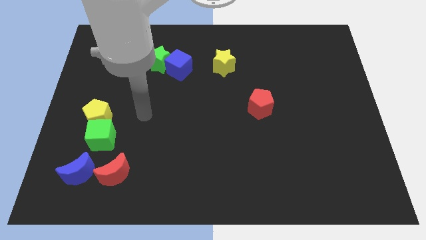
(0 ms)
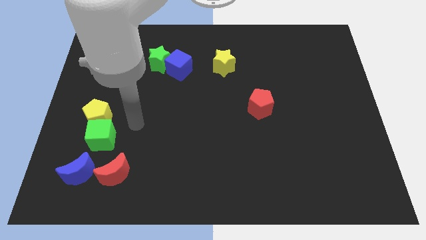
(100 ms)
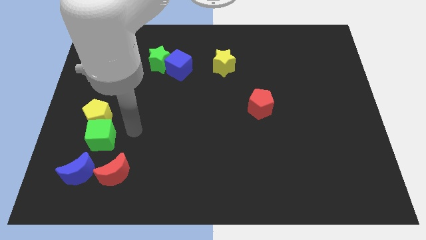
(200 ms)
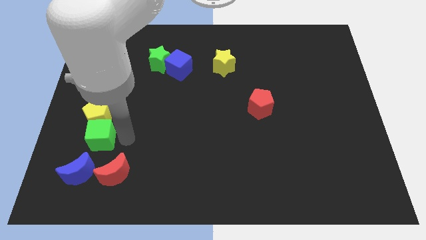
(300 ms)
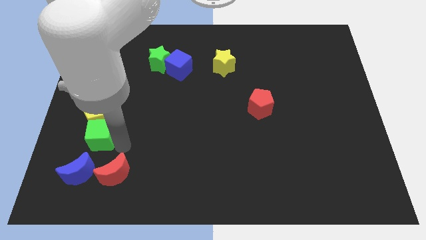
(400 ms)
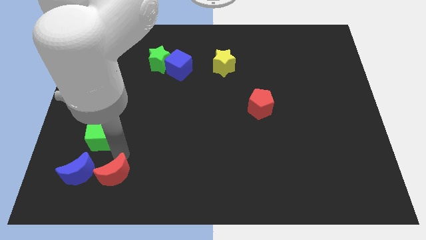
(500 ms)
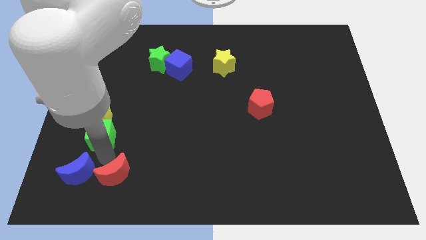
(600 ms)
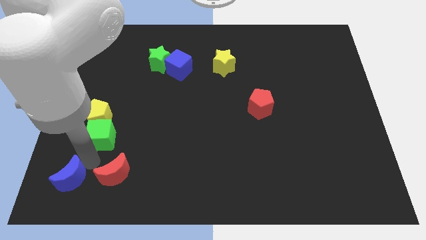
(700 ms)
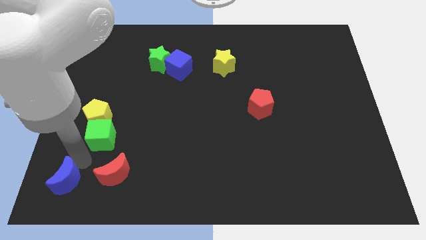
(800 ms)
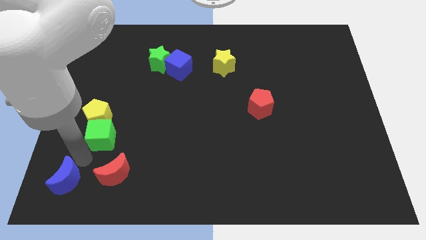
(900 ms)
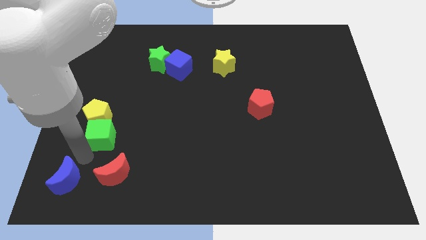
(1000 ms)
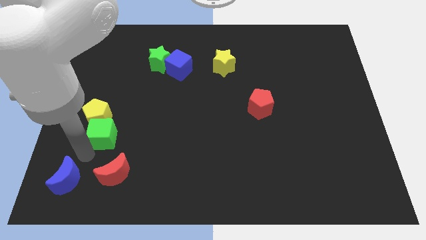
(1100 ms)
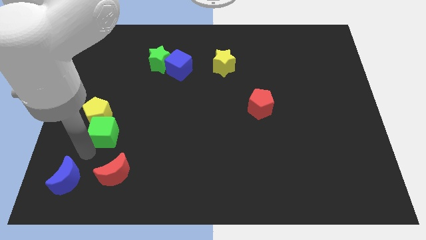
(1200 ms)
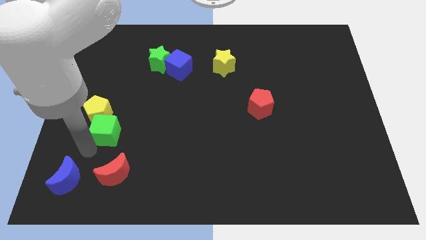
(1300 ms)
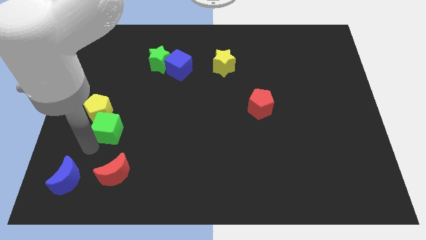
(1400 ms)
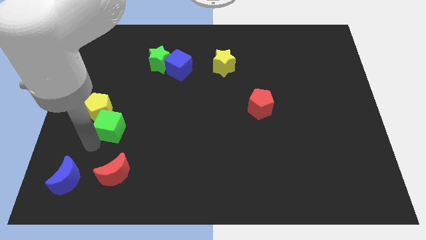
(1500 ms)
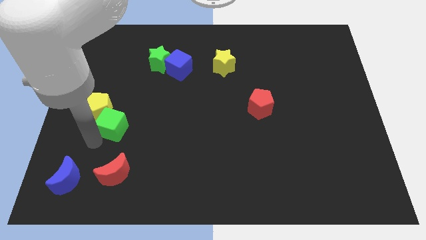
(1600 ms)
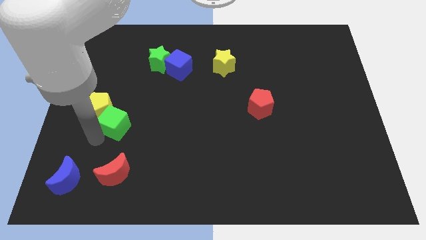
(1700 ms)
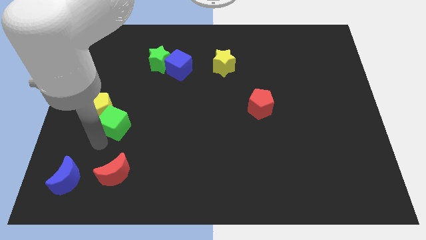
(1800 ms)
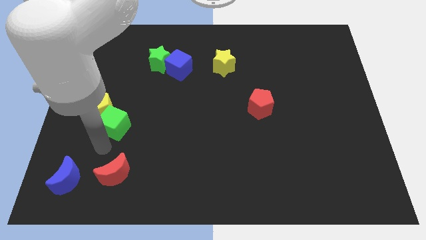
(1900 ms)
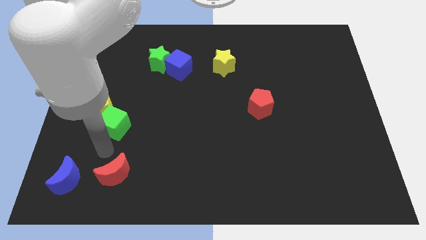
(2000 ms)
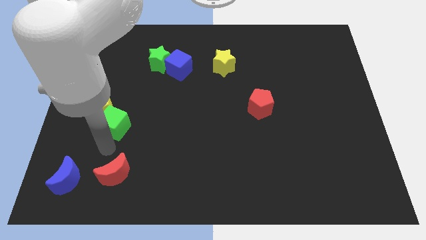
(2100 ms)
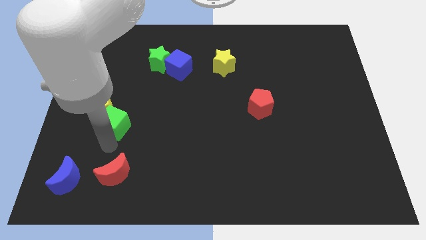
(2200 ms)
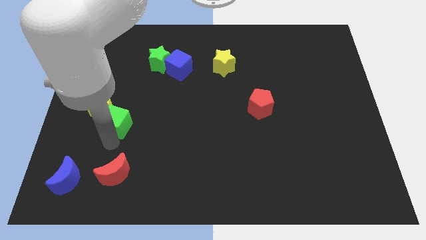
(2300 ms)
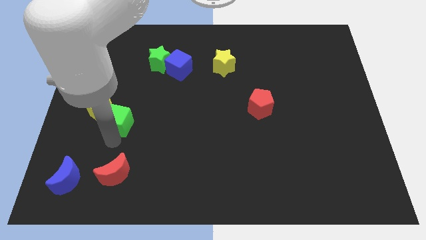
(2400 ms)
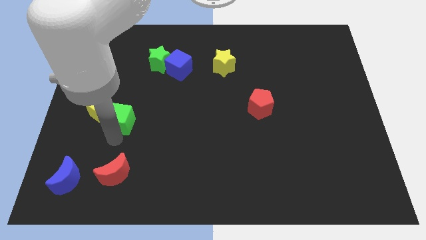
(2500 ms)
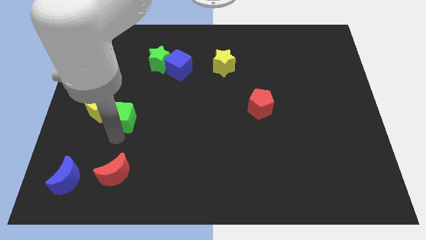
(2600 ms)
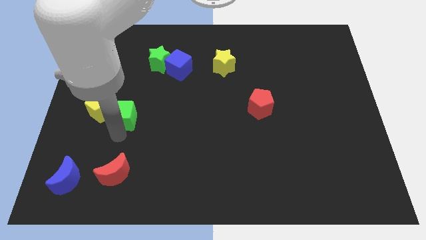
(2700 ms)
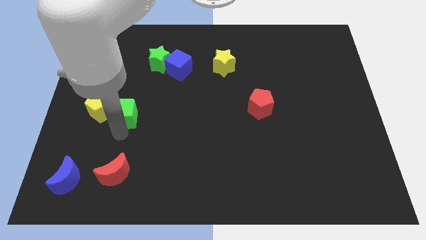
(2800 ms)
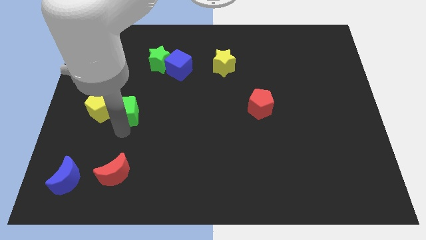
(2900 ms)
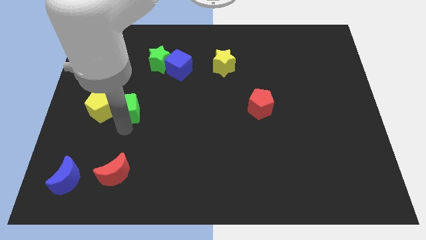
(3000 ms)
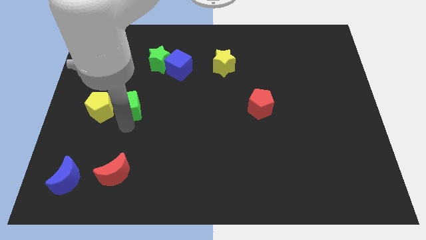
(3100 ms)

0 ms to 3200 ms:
push the green cube up a little

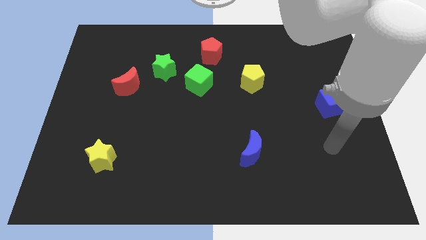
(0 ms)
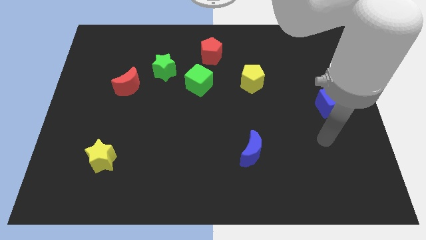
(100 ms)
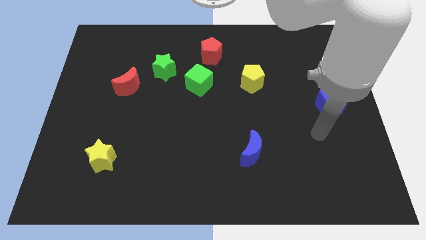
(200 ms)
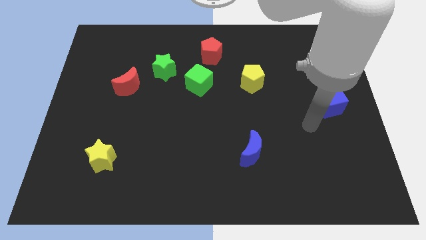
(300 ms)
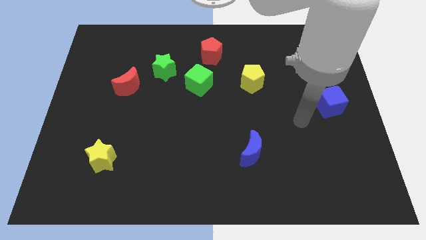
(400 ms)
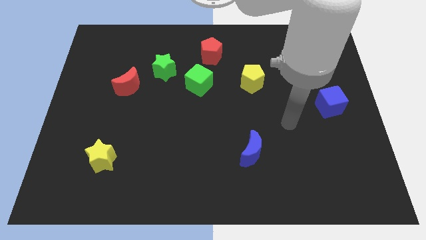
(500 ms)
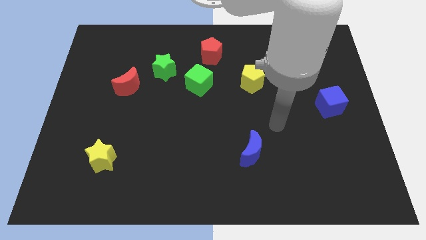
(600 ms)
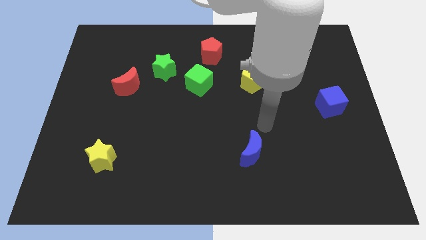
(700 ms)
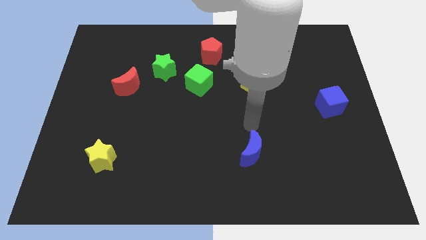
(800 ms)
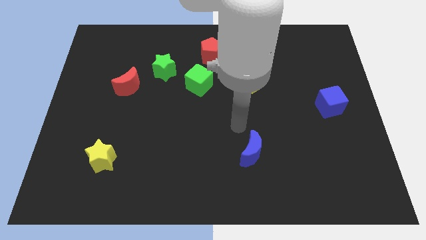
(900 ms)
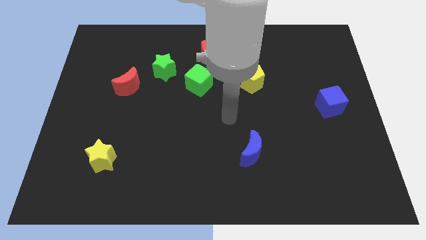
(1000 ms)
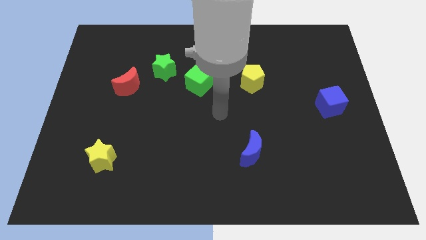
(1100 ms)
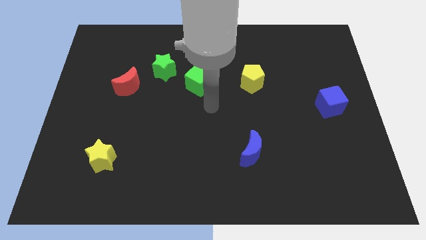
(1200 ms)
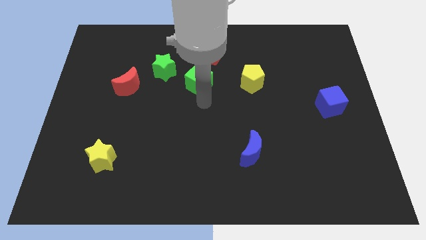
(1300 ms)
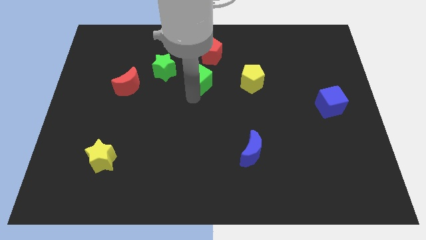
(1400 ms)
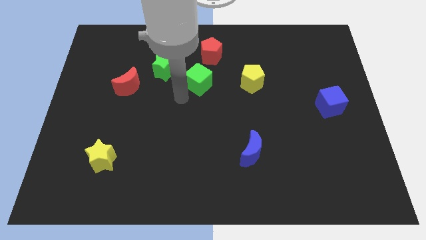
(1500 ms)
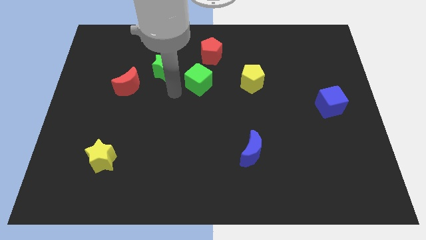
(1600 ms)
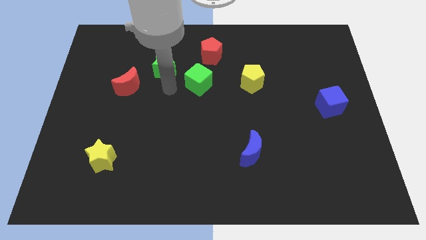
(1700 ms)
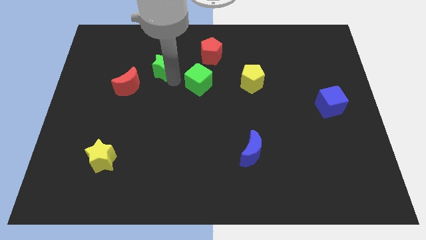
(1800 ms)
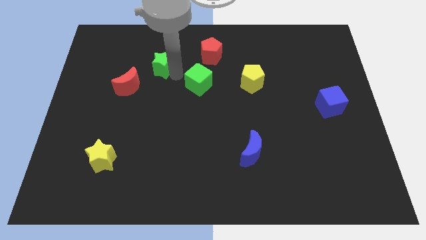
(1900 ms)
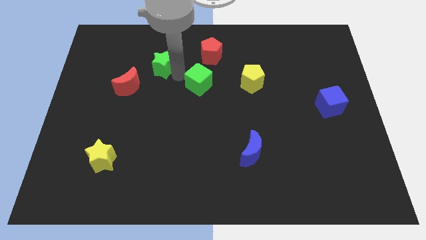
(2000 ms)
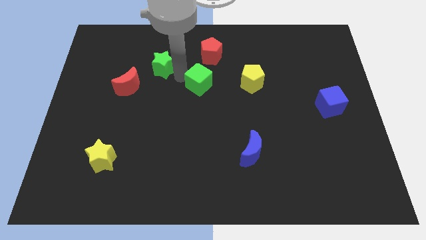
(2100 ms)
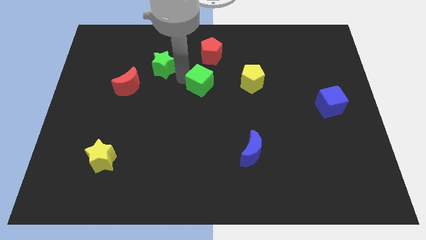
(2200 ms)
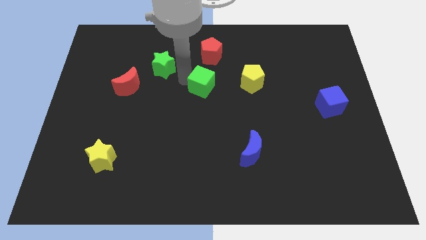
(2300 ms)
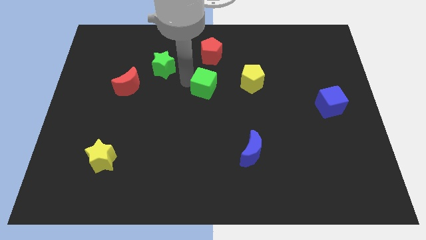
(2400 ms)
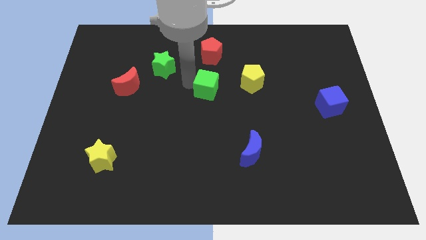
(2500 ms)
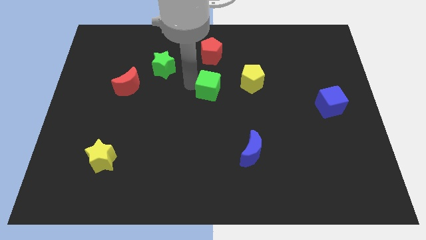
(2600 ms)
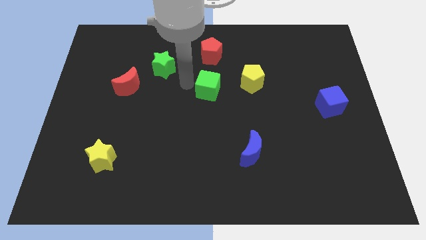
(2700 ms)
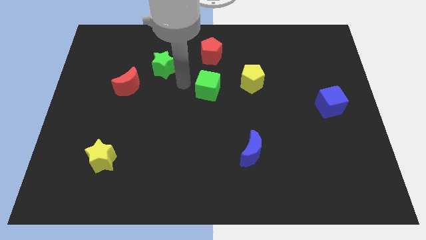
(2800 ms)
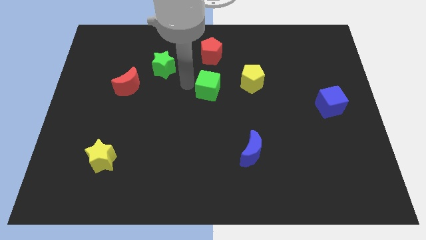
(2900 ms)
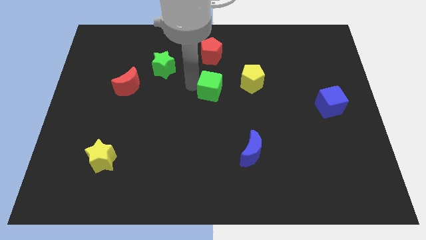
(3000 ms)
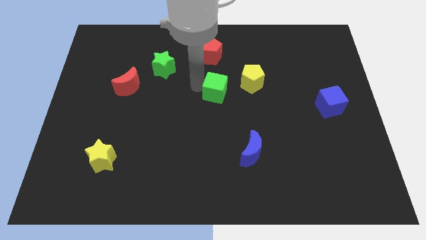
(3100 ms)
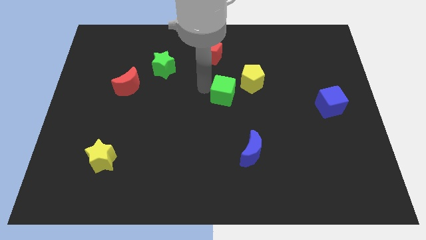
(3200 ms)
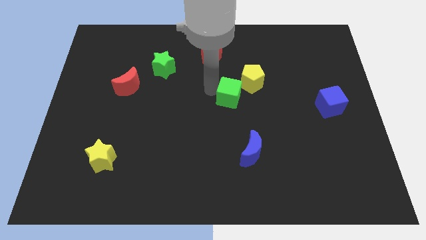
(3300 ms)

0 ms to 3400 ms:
slightly move the green cube right

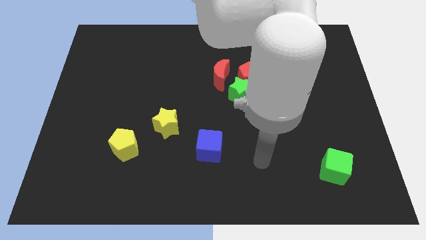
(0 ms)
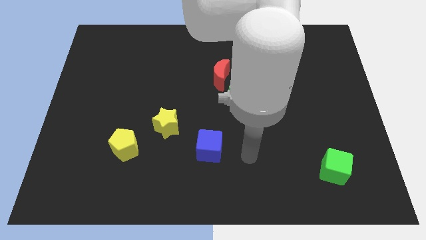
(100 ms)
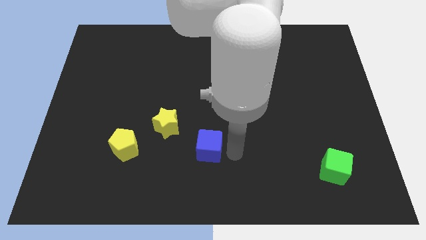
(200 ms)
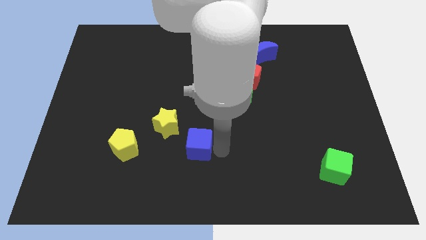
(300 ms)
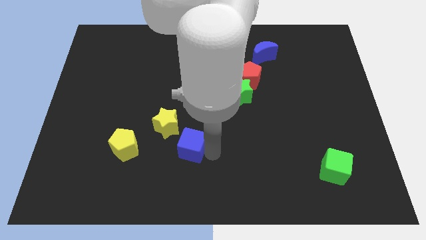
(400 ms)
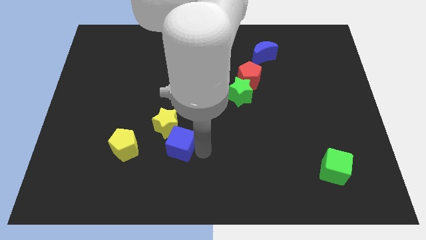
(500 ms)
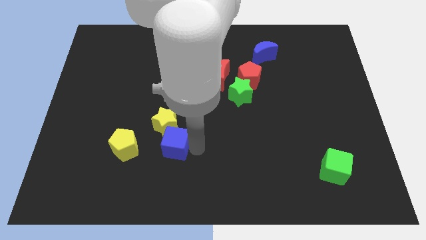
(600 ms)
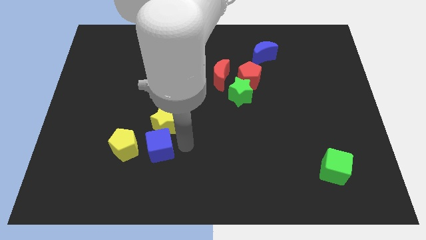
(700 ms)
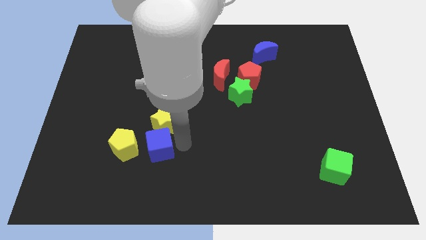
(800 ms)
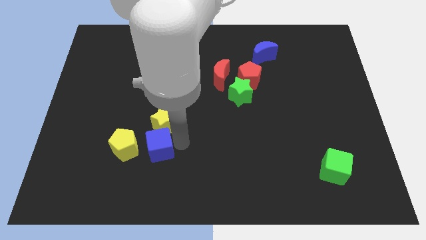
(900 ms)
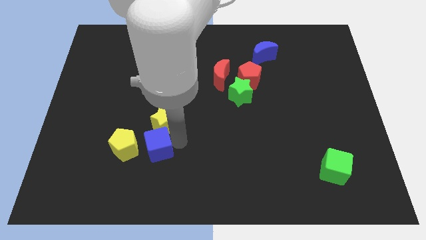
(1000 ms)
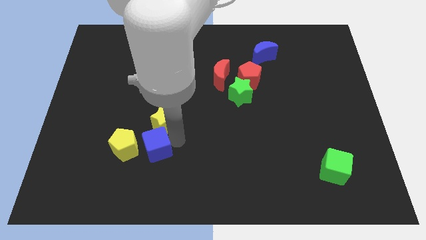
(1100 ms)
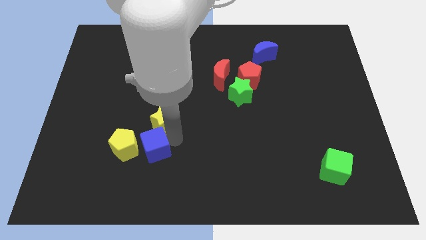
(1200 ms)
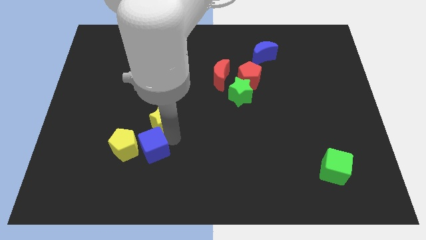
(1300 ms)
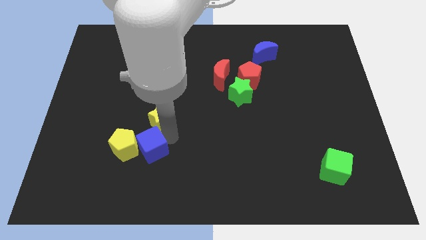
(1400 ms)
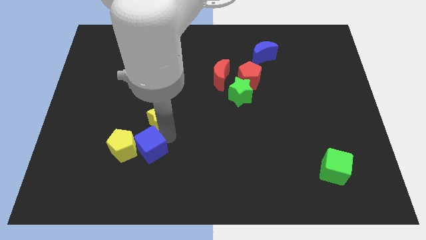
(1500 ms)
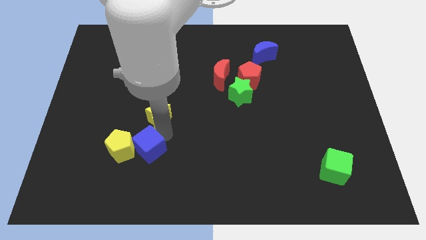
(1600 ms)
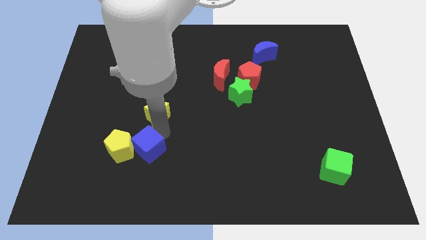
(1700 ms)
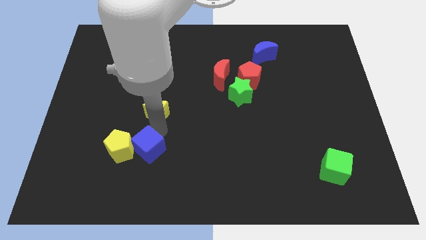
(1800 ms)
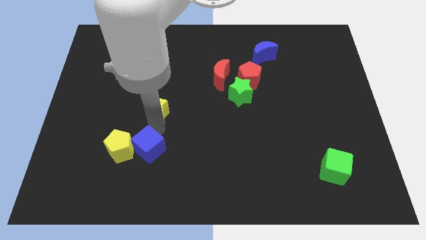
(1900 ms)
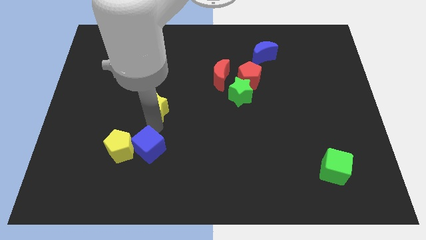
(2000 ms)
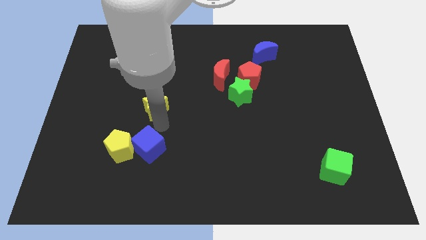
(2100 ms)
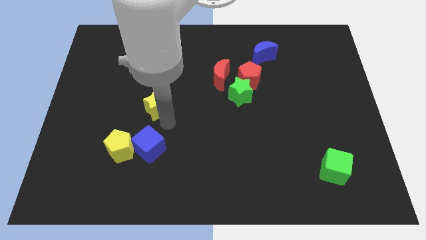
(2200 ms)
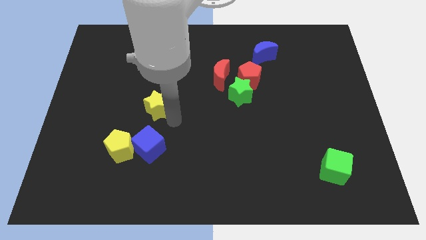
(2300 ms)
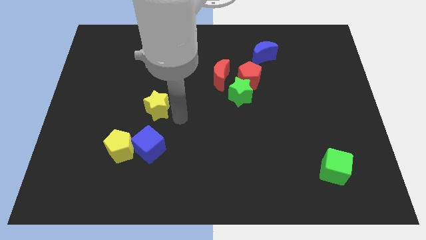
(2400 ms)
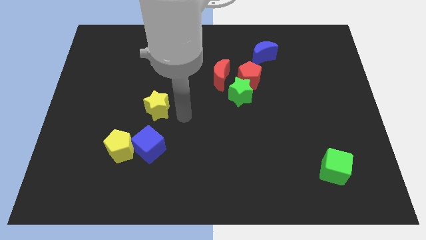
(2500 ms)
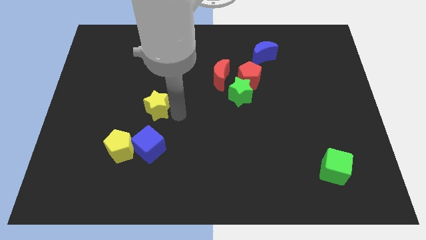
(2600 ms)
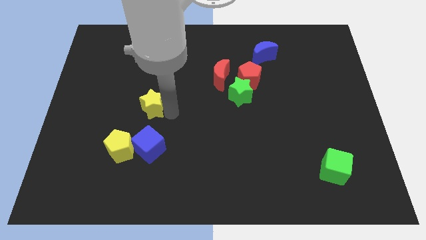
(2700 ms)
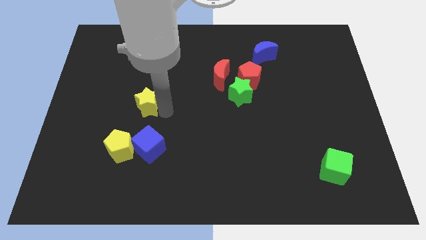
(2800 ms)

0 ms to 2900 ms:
slightly push the yellow star up and left
